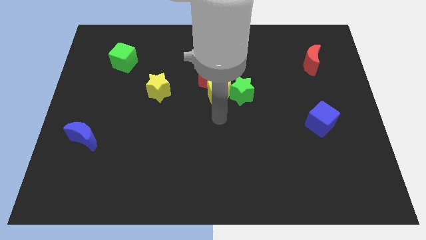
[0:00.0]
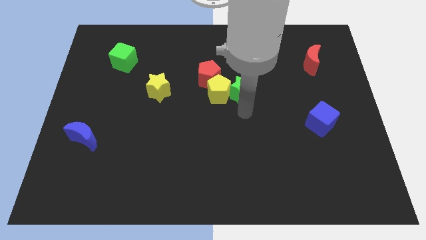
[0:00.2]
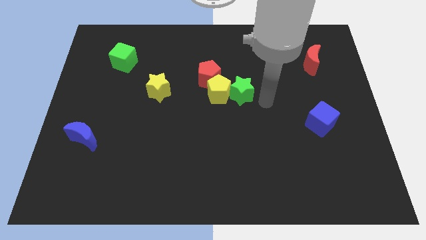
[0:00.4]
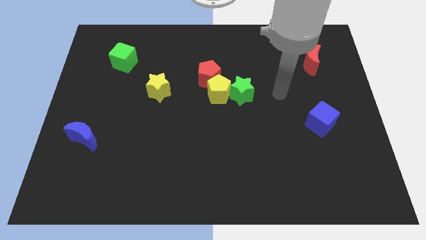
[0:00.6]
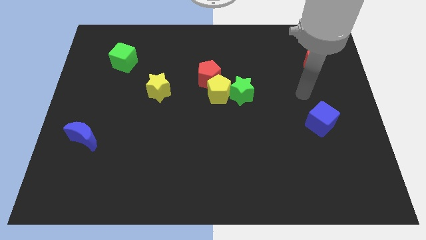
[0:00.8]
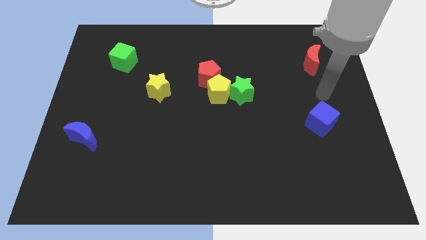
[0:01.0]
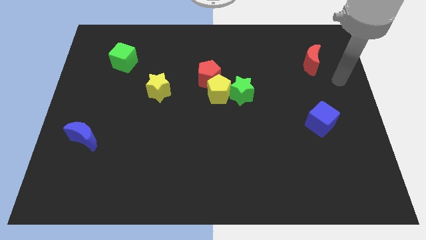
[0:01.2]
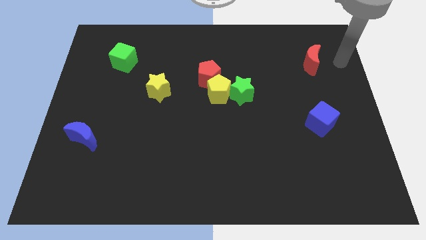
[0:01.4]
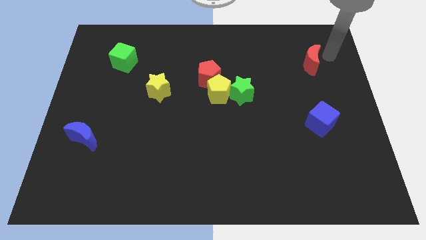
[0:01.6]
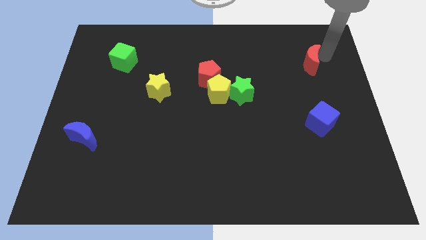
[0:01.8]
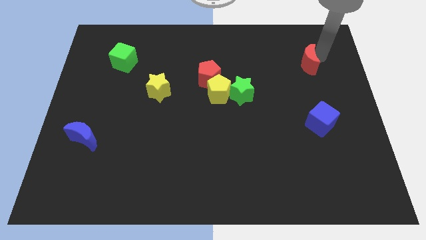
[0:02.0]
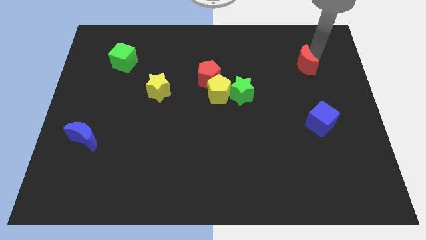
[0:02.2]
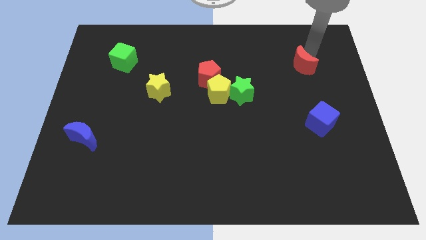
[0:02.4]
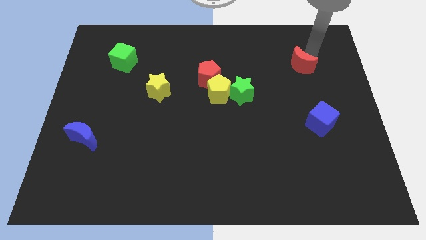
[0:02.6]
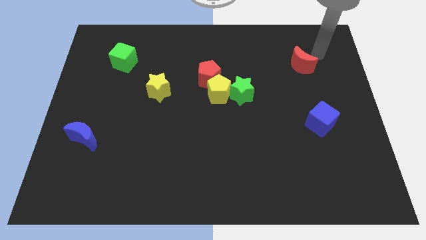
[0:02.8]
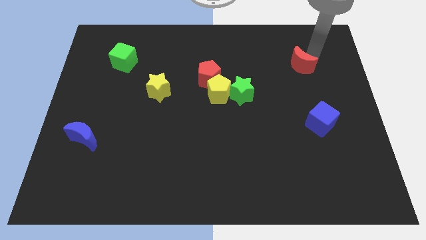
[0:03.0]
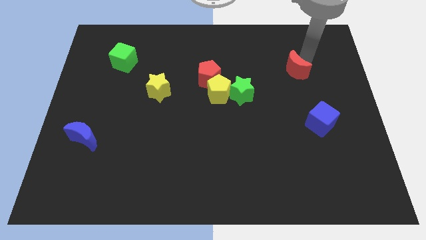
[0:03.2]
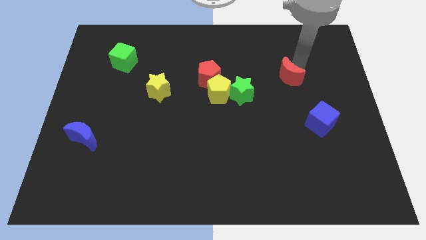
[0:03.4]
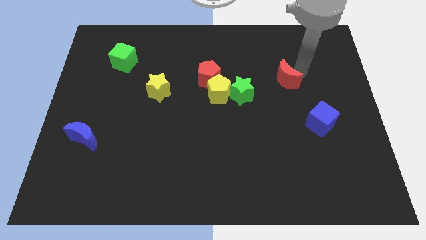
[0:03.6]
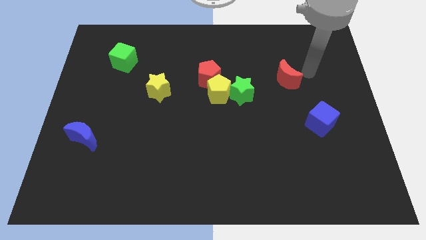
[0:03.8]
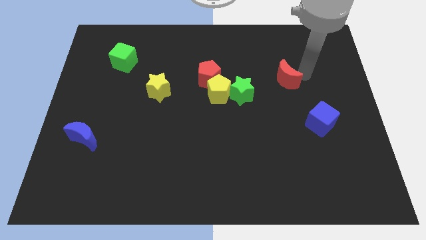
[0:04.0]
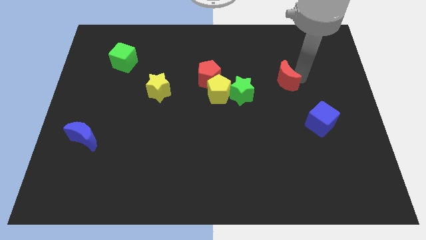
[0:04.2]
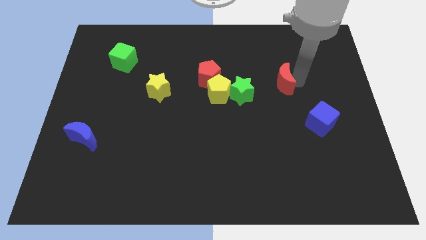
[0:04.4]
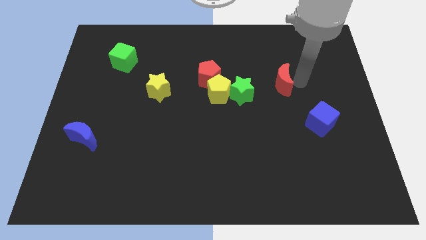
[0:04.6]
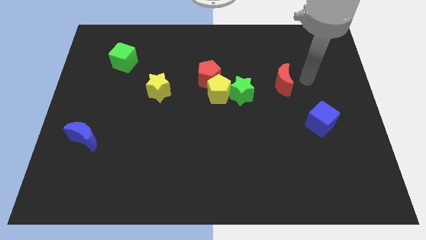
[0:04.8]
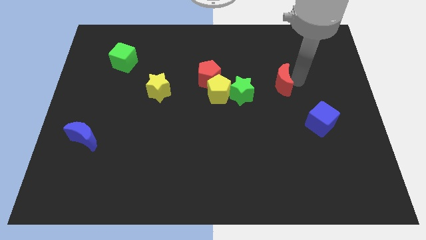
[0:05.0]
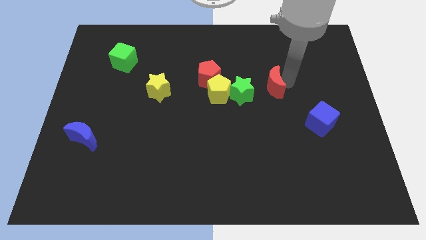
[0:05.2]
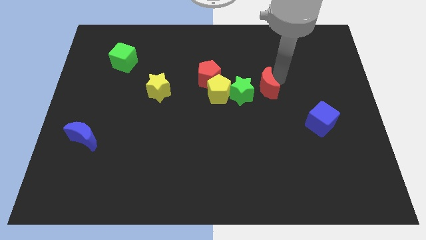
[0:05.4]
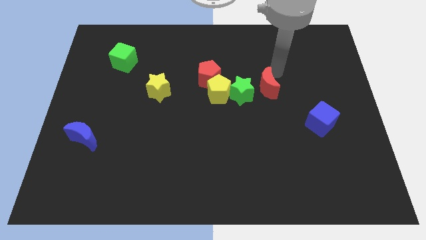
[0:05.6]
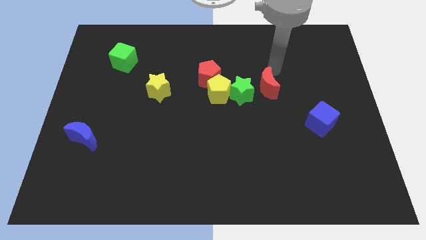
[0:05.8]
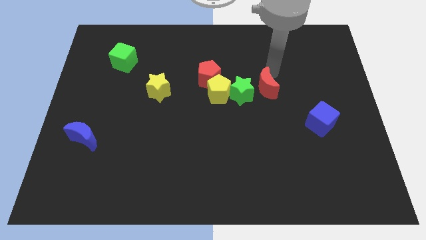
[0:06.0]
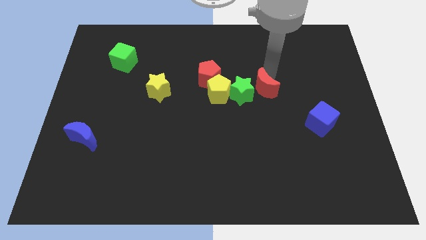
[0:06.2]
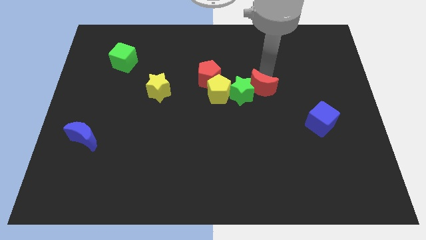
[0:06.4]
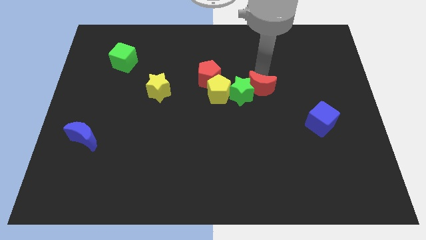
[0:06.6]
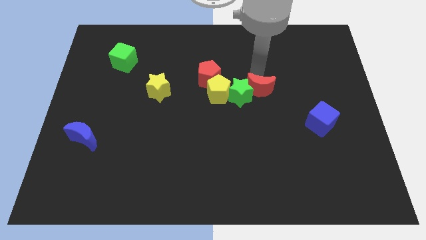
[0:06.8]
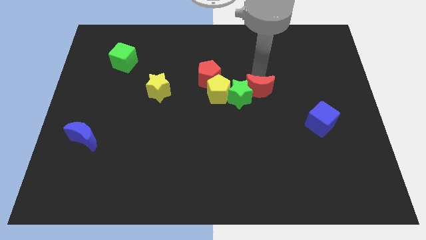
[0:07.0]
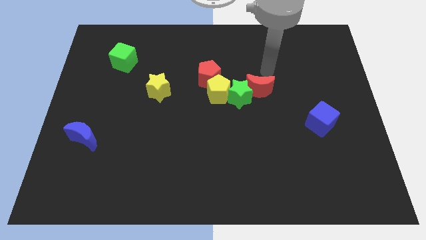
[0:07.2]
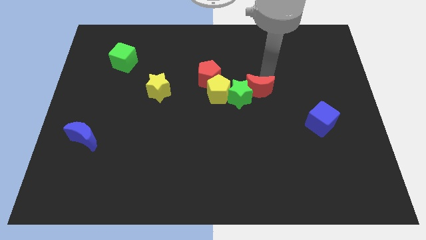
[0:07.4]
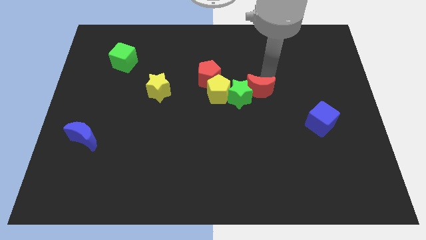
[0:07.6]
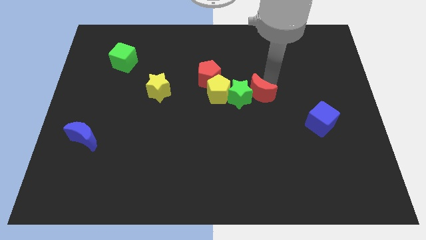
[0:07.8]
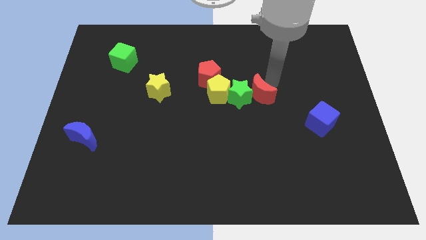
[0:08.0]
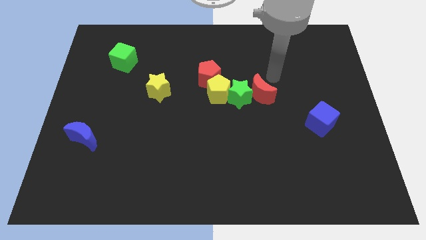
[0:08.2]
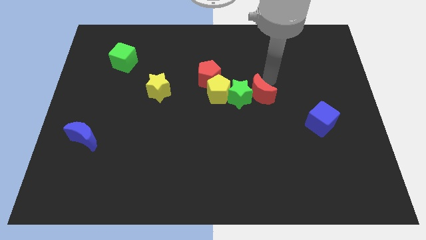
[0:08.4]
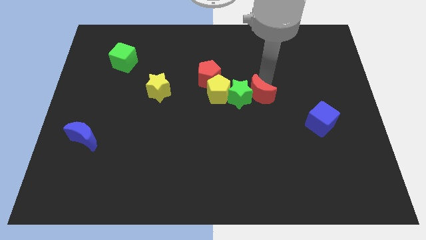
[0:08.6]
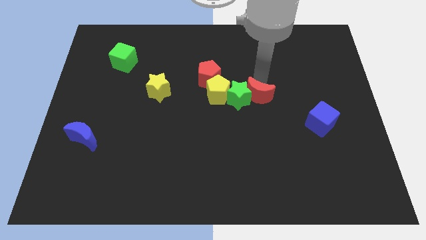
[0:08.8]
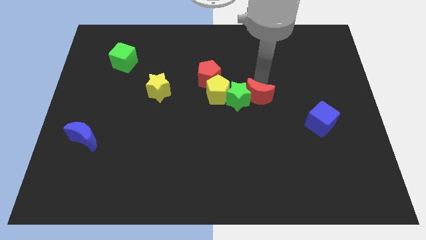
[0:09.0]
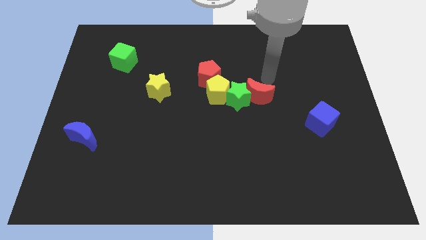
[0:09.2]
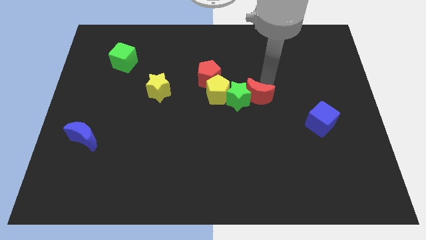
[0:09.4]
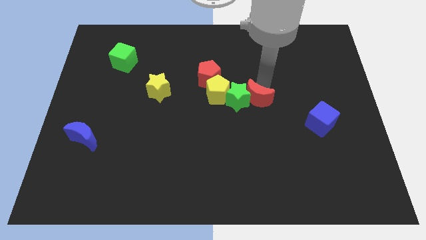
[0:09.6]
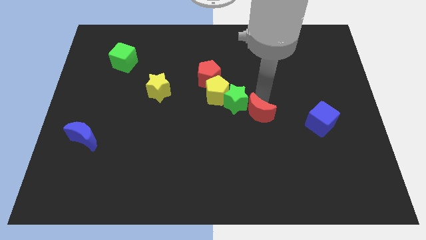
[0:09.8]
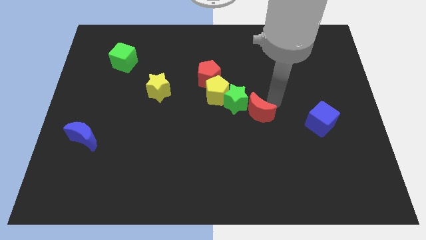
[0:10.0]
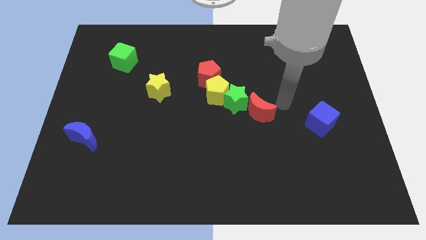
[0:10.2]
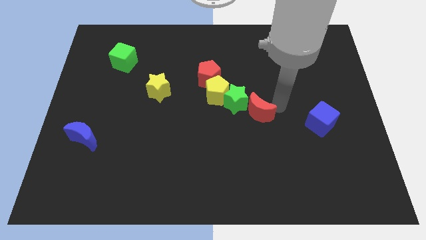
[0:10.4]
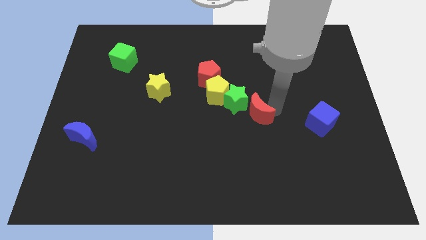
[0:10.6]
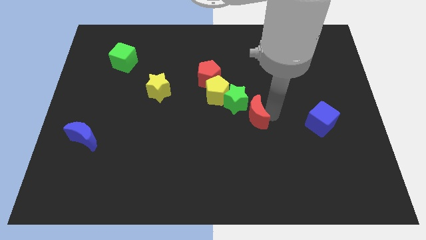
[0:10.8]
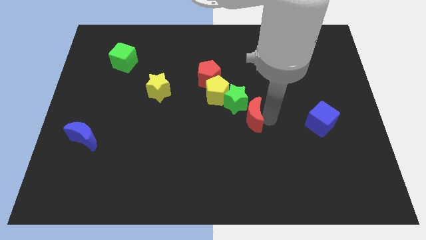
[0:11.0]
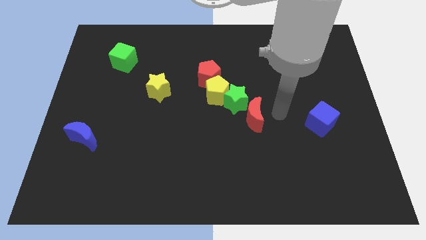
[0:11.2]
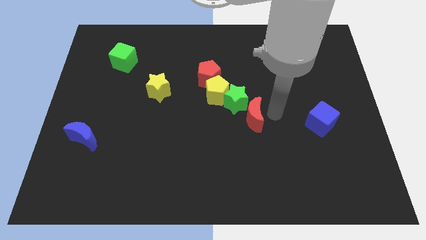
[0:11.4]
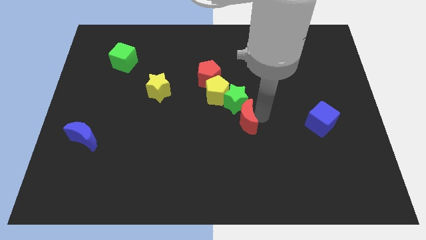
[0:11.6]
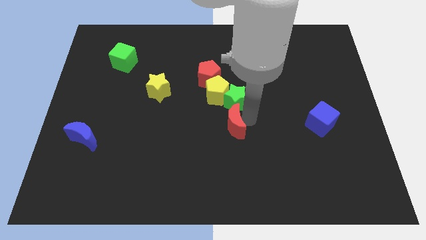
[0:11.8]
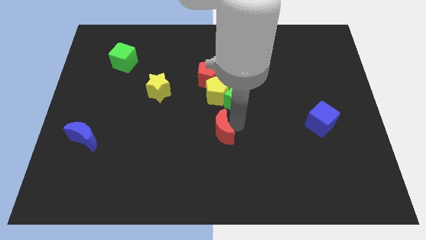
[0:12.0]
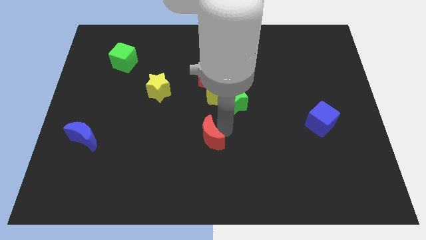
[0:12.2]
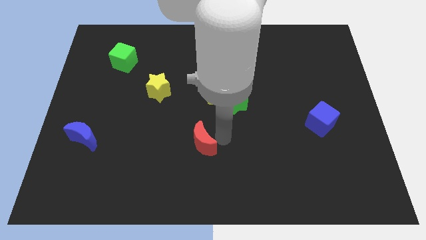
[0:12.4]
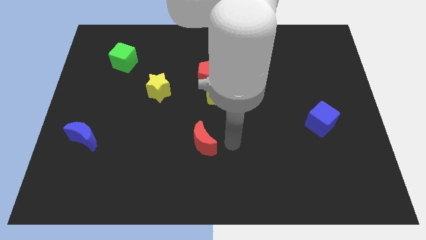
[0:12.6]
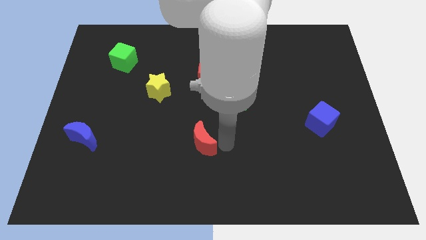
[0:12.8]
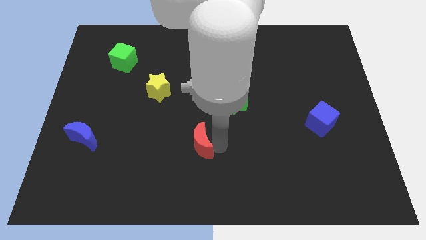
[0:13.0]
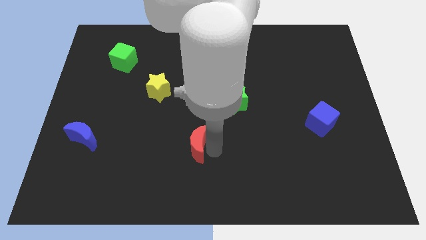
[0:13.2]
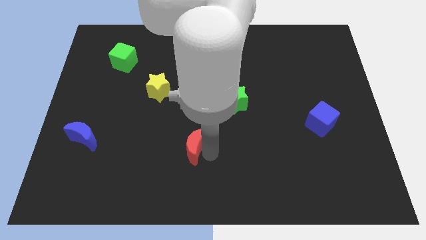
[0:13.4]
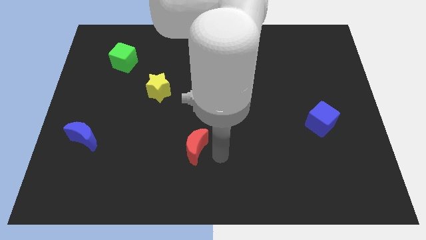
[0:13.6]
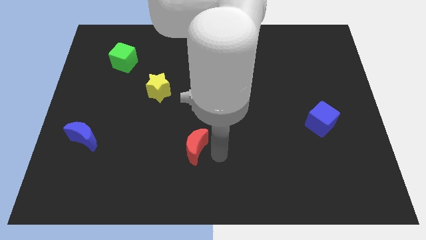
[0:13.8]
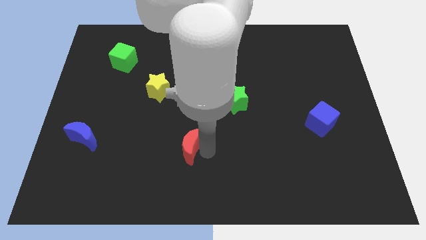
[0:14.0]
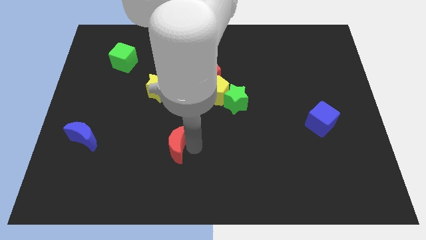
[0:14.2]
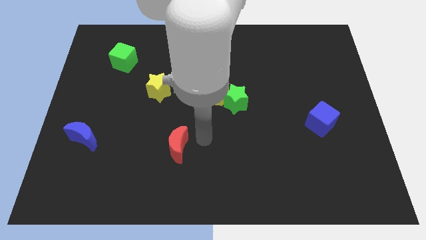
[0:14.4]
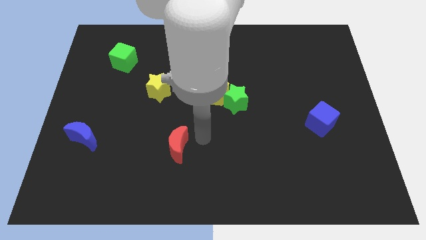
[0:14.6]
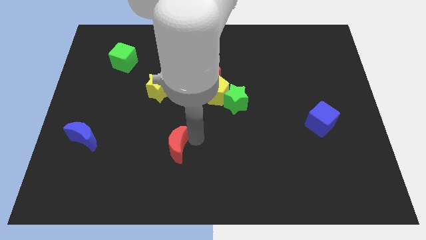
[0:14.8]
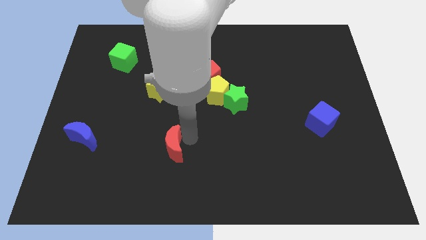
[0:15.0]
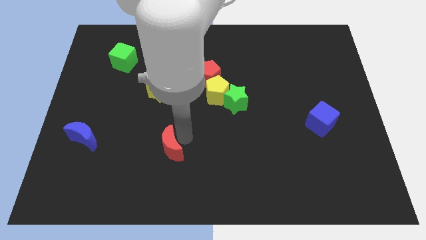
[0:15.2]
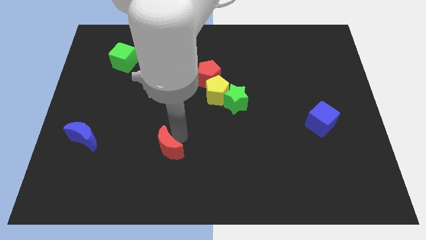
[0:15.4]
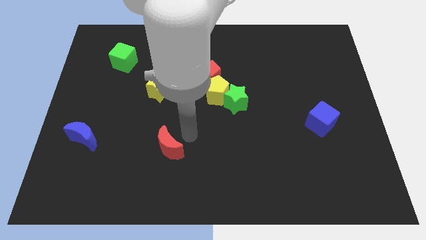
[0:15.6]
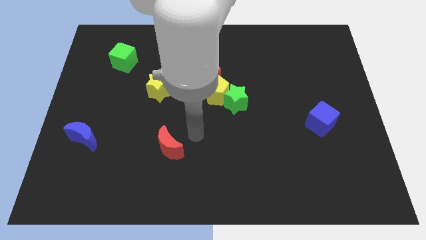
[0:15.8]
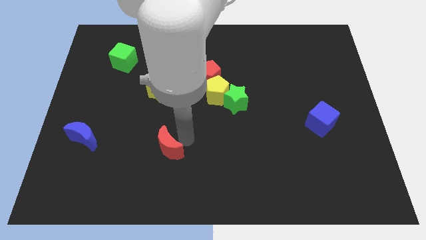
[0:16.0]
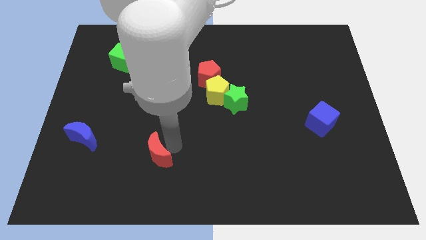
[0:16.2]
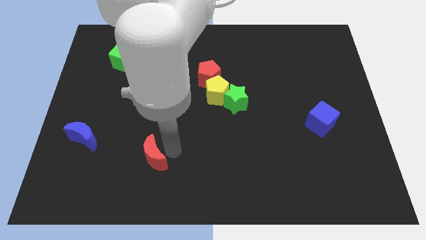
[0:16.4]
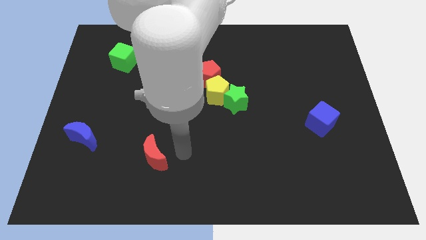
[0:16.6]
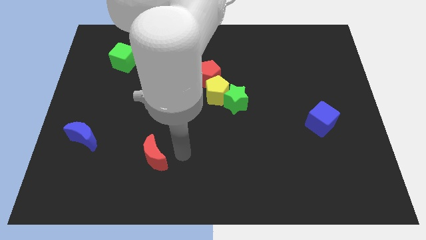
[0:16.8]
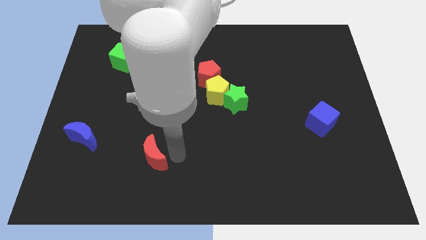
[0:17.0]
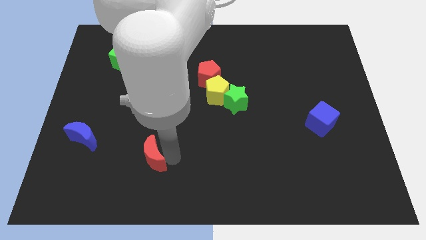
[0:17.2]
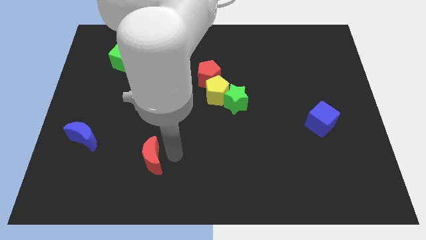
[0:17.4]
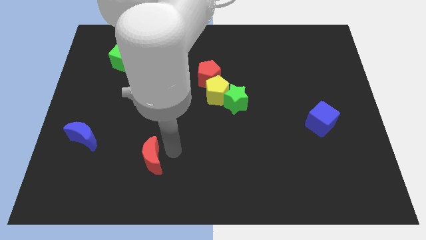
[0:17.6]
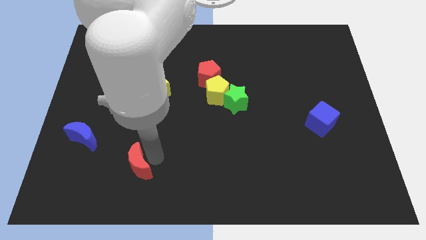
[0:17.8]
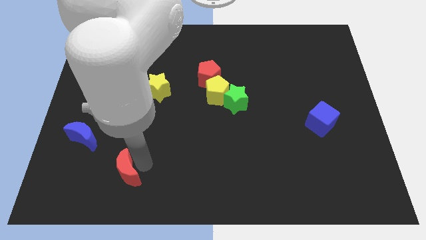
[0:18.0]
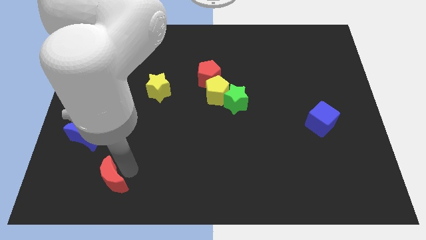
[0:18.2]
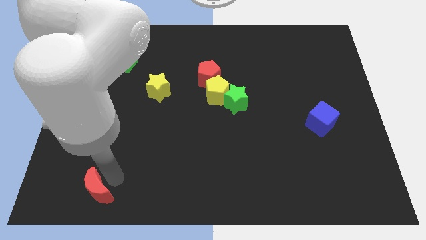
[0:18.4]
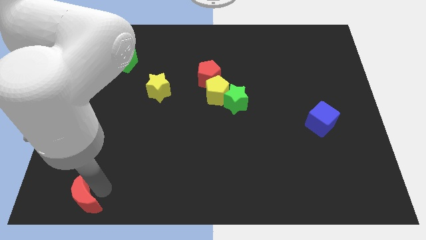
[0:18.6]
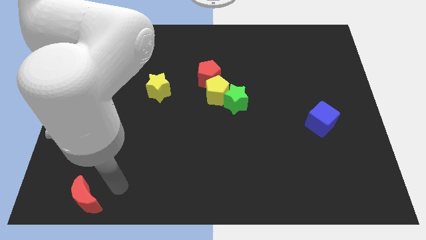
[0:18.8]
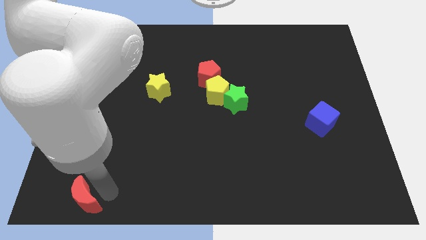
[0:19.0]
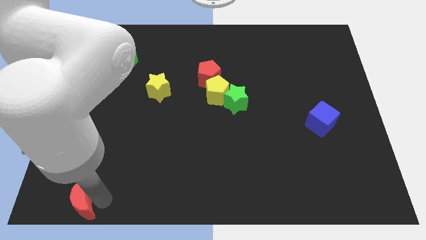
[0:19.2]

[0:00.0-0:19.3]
put the red moon to the bottom left
